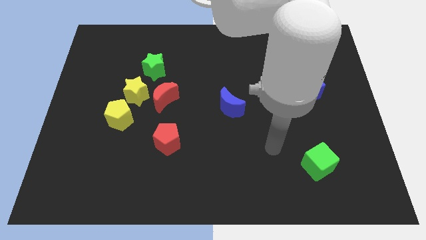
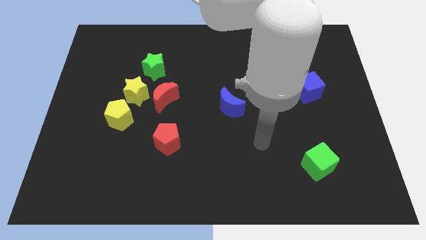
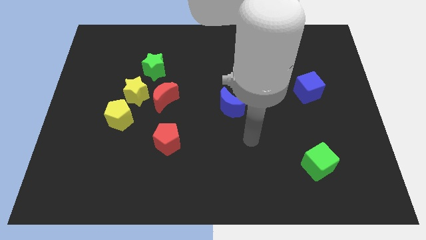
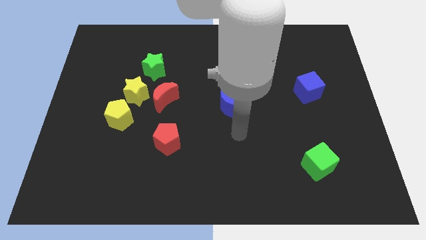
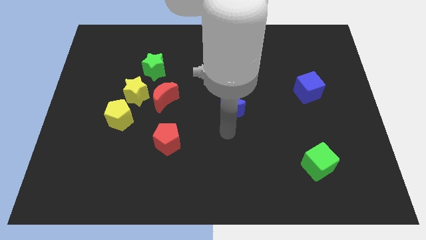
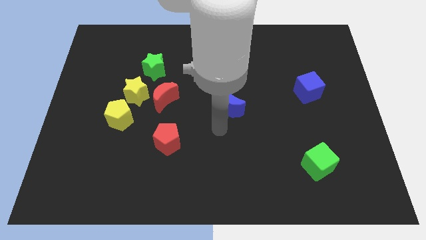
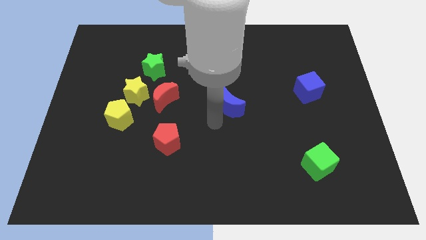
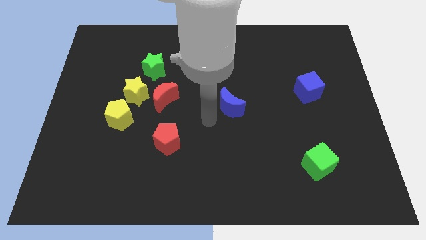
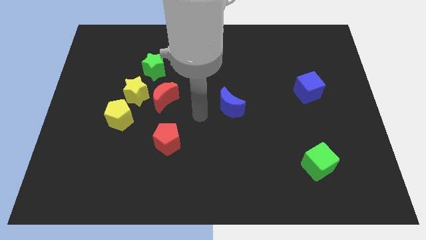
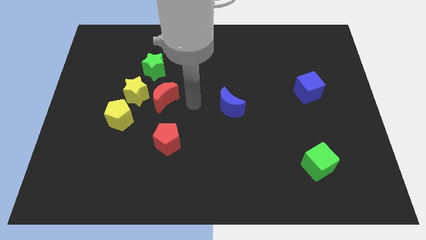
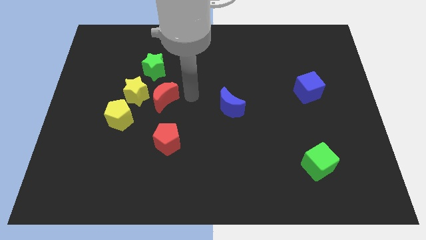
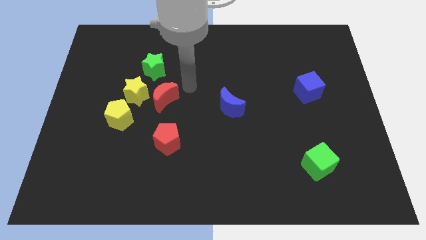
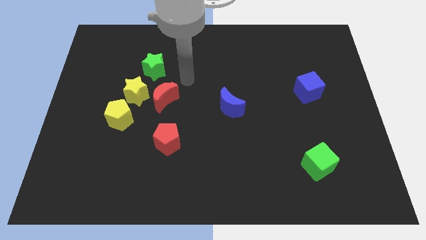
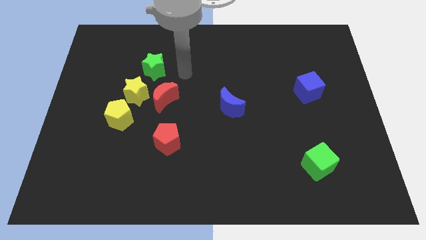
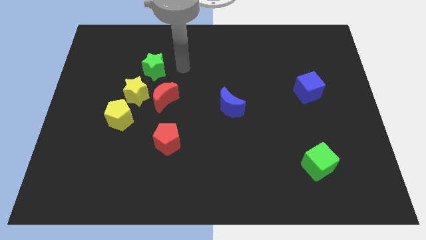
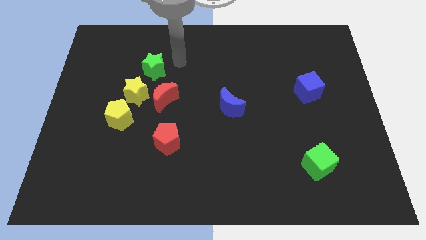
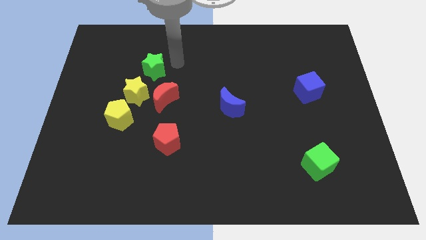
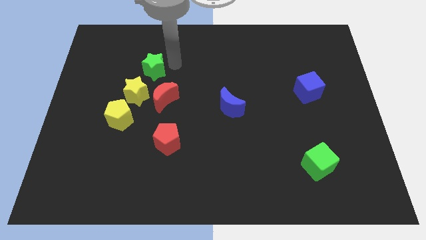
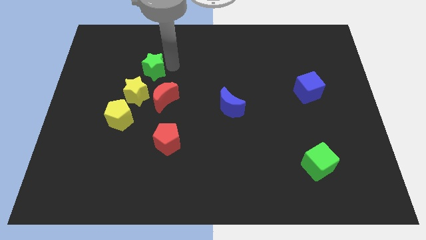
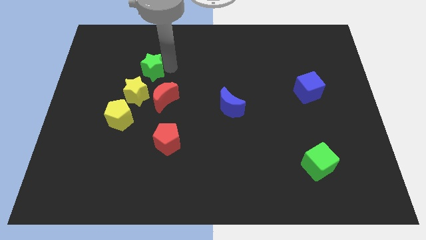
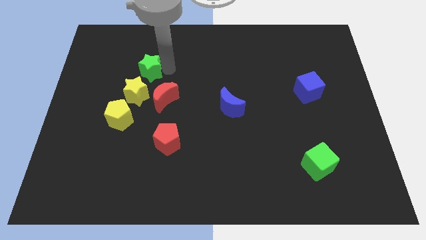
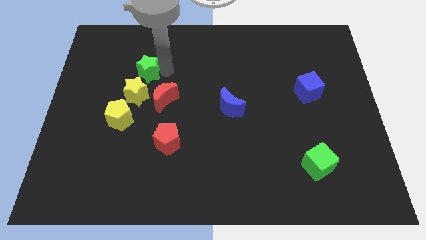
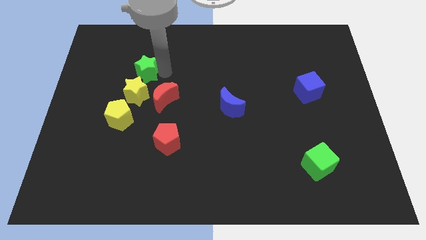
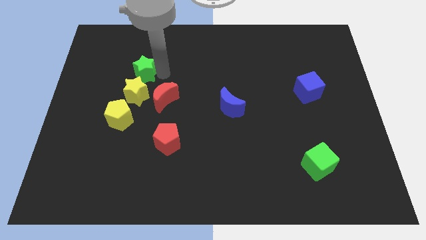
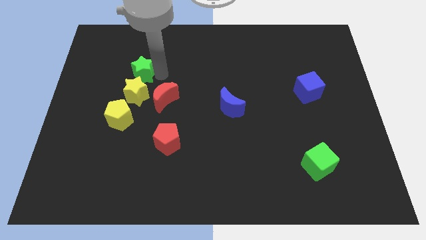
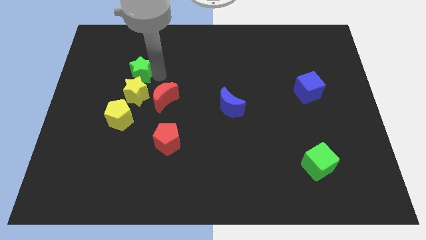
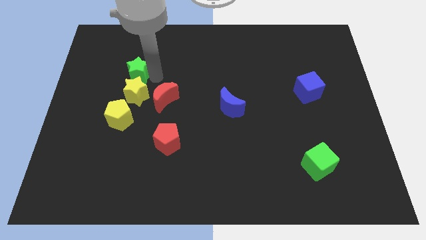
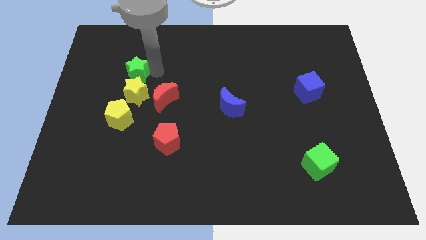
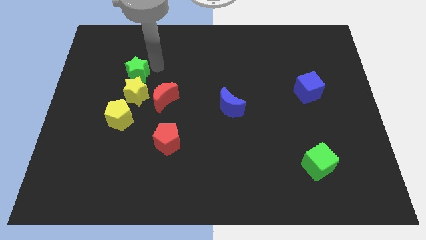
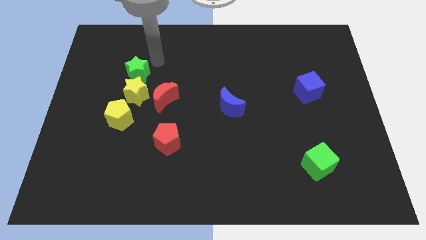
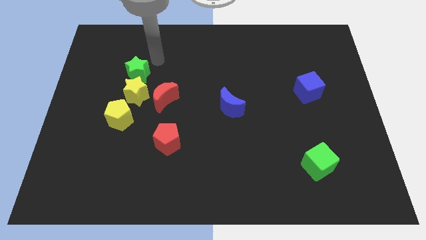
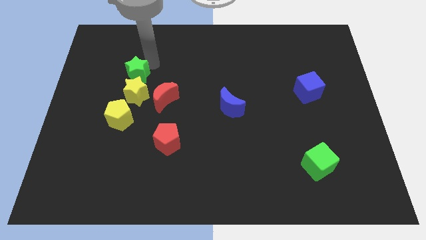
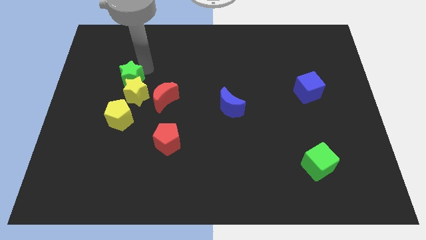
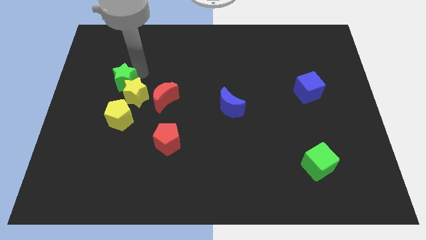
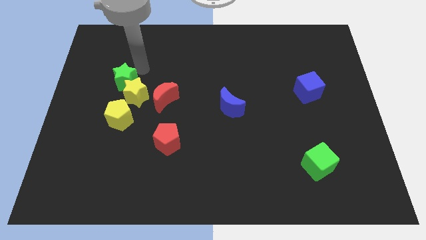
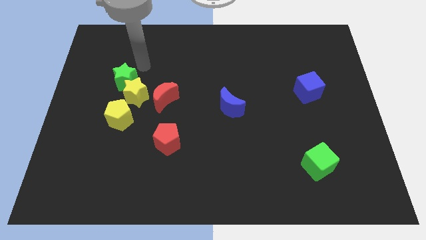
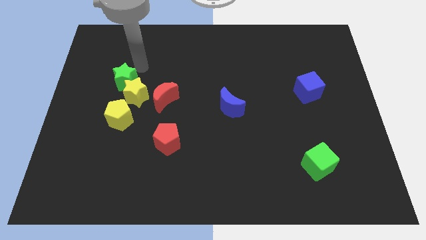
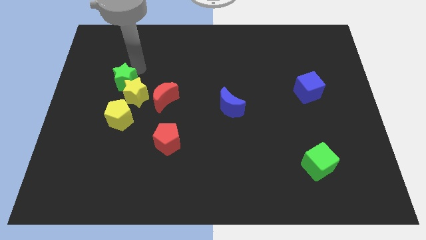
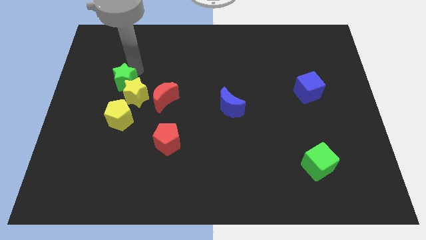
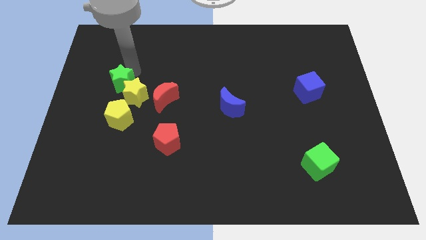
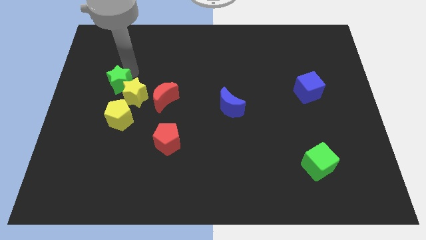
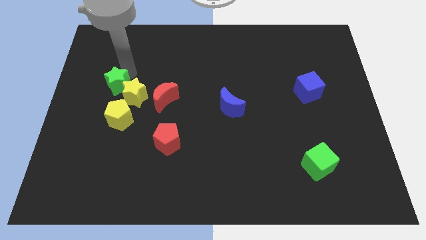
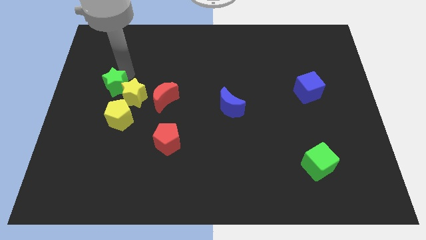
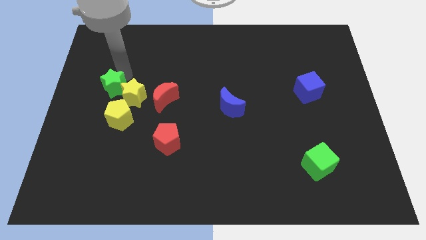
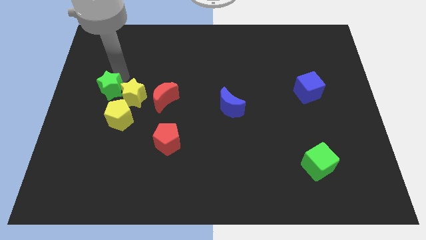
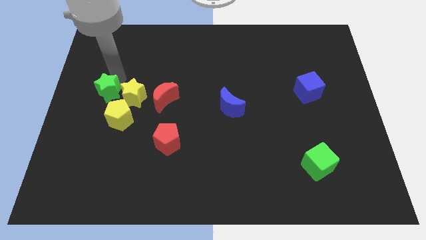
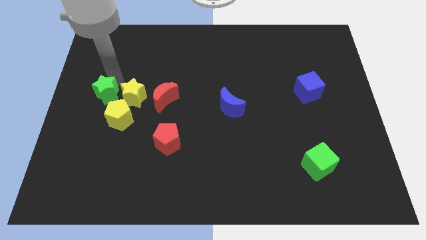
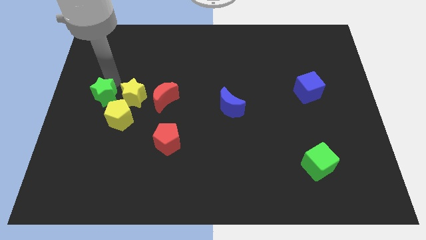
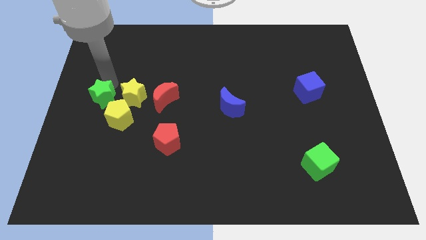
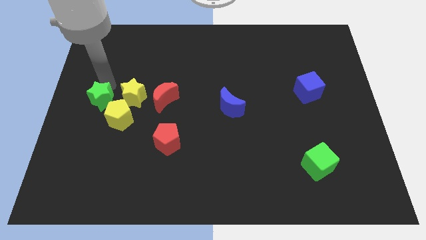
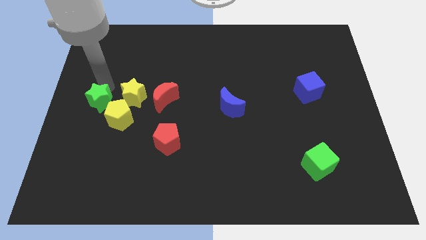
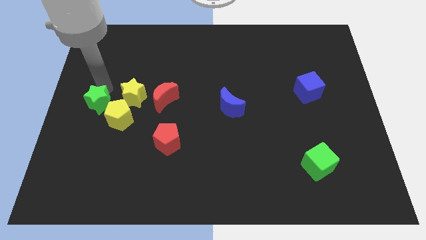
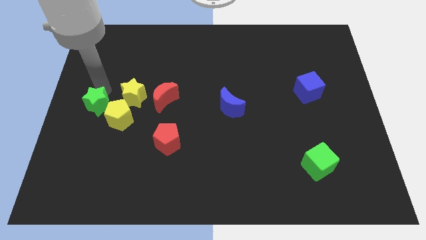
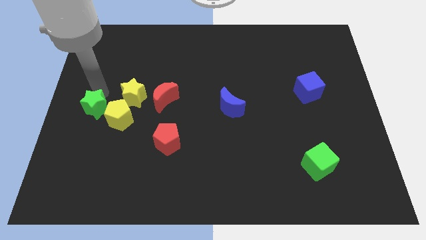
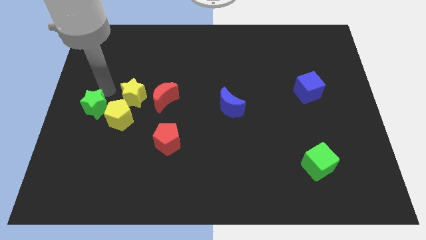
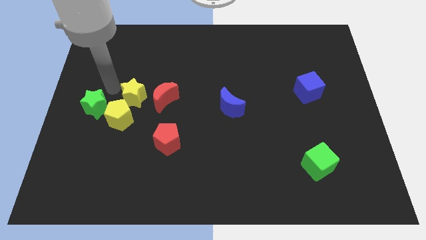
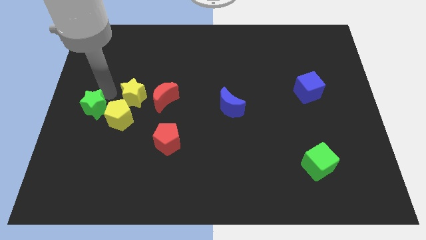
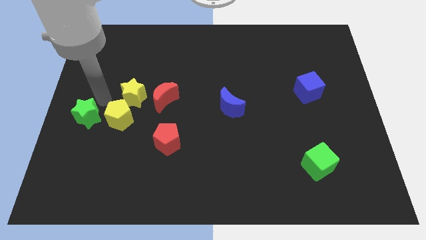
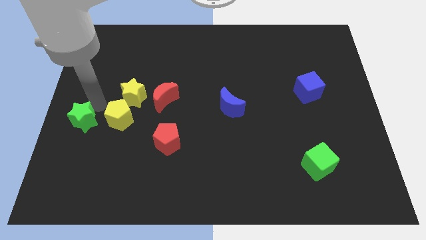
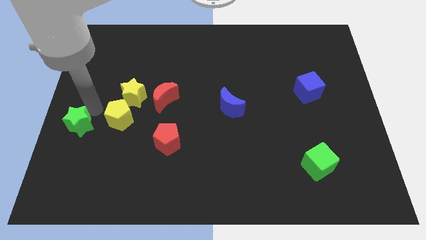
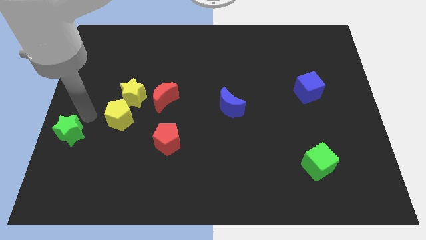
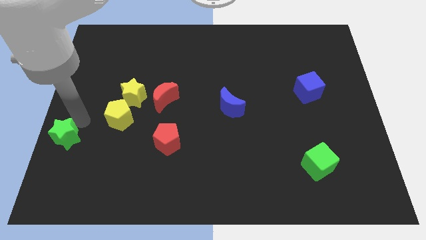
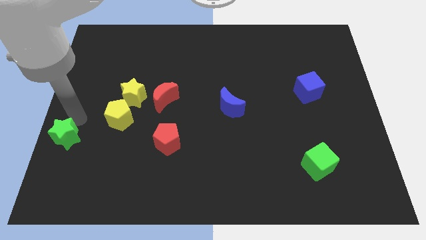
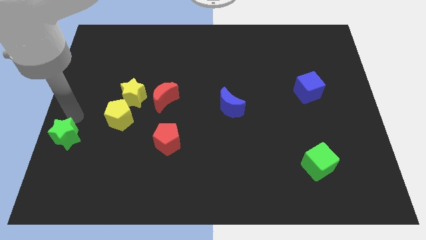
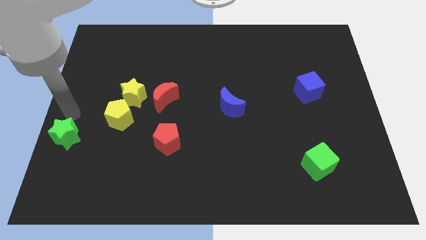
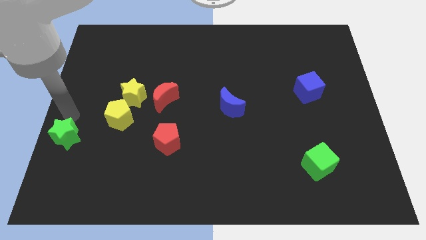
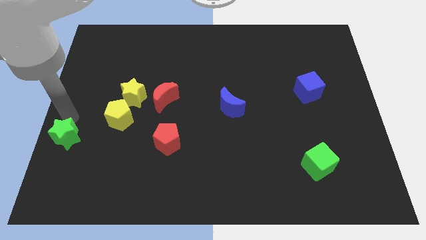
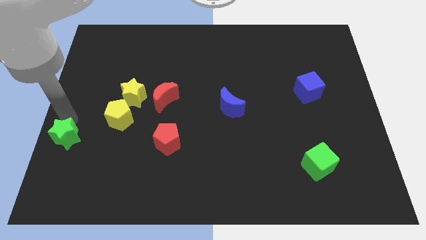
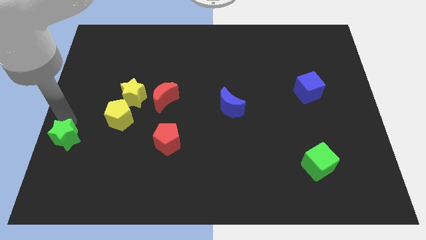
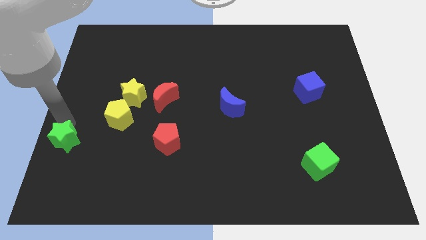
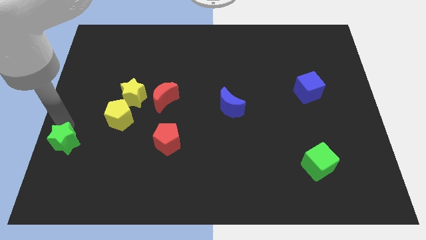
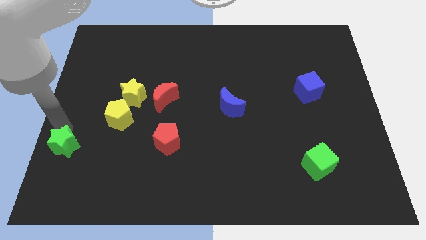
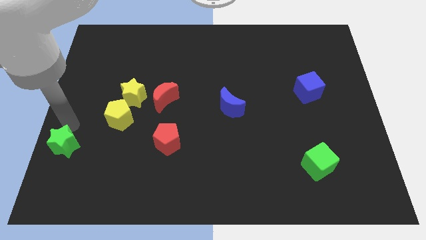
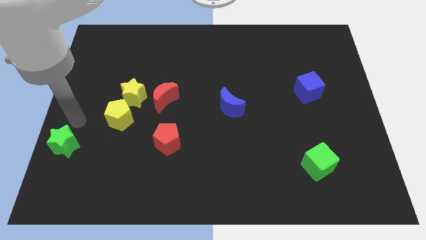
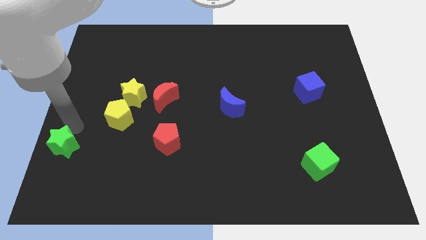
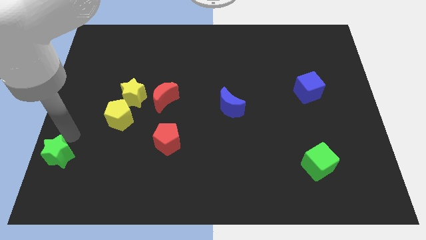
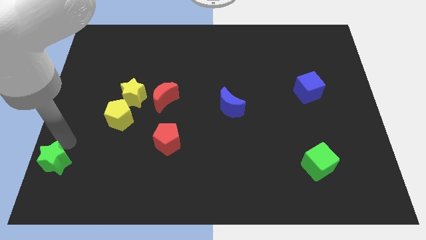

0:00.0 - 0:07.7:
put the green star to the bottom left of the board
